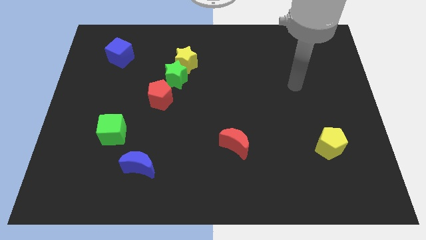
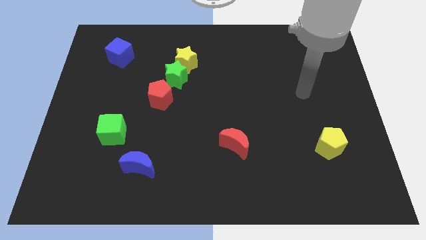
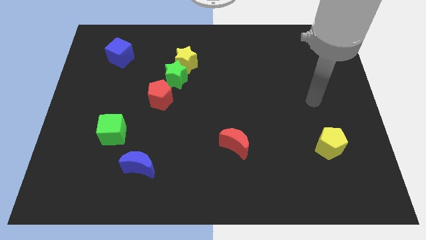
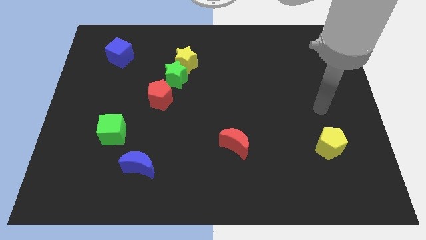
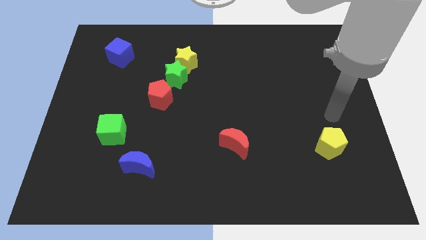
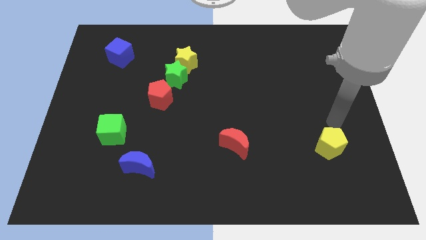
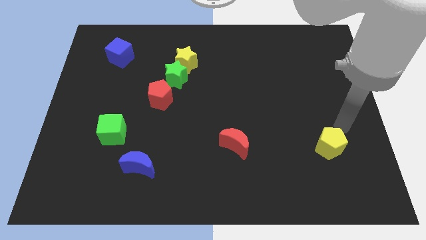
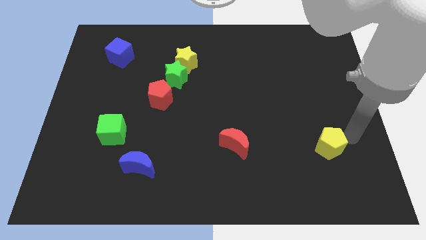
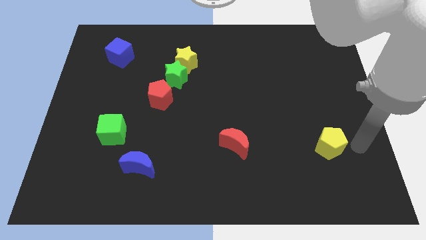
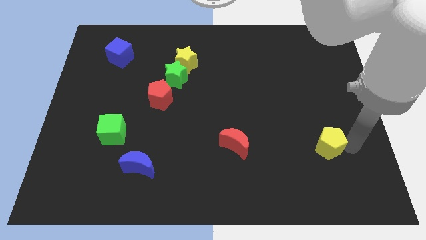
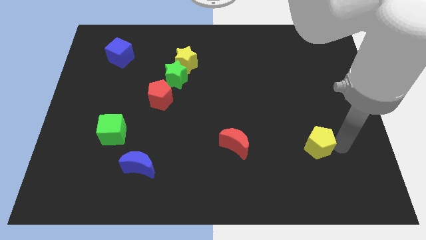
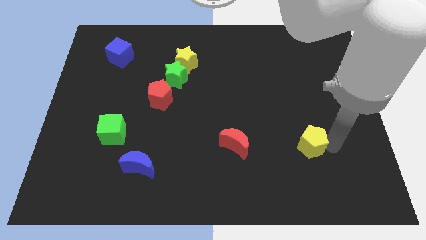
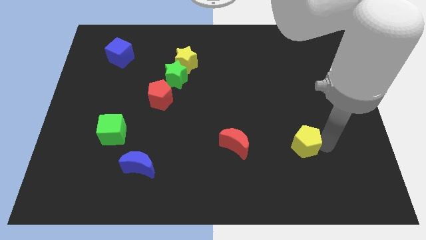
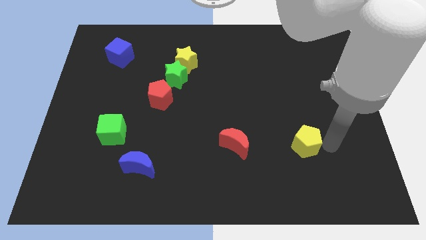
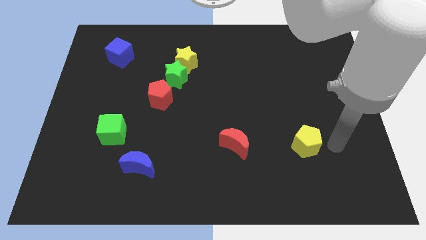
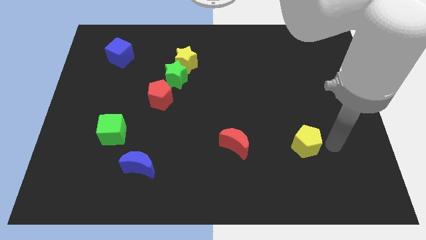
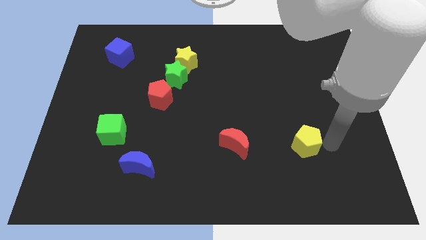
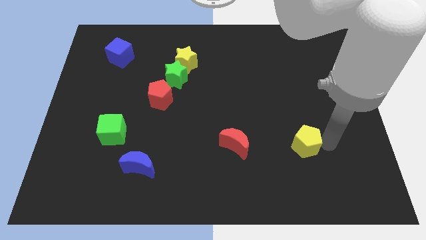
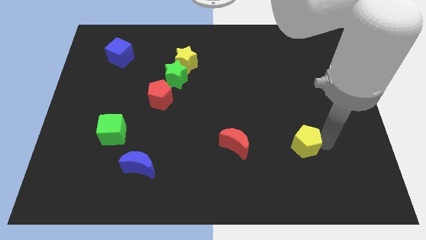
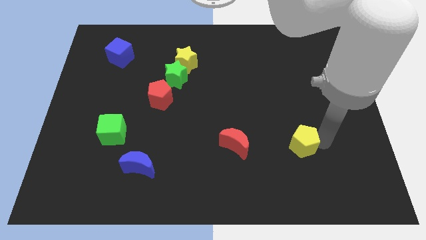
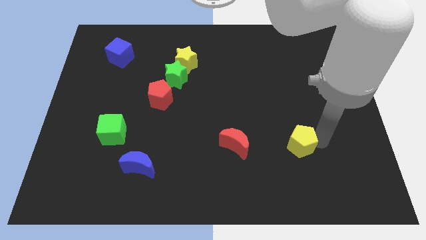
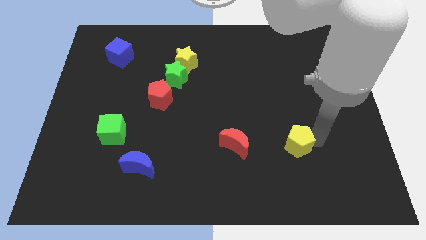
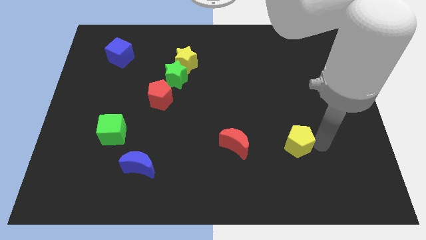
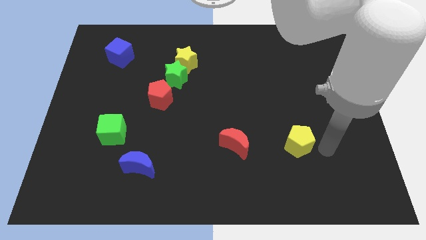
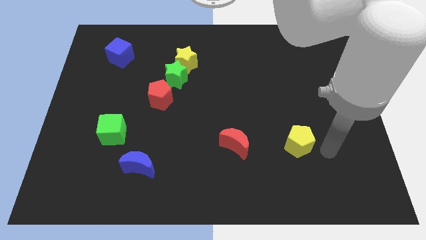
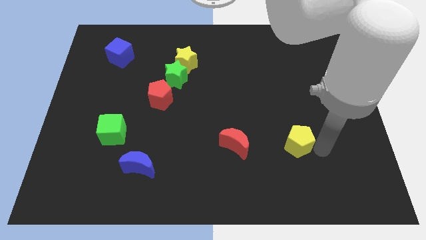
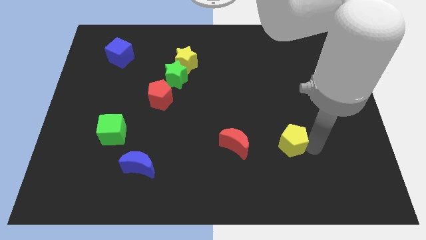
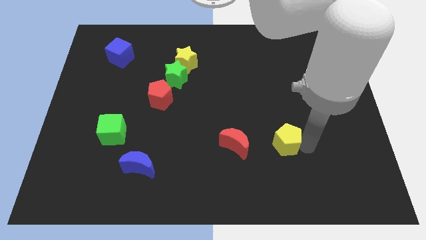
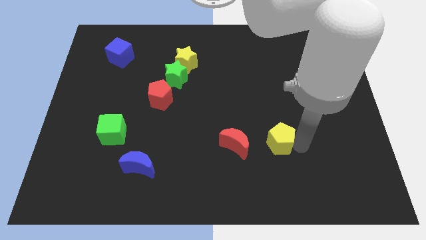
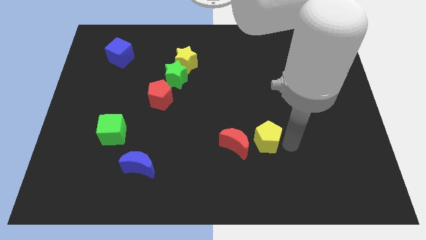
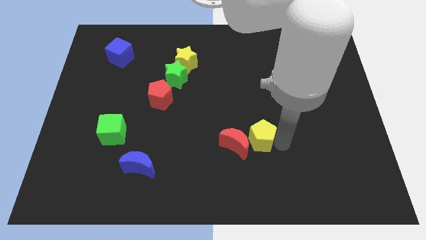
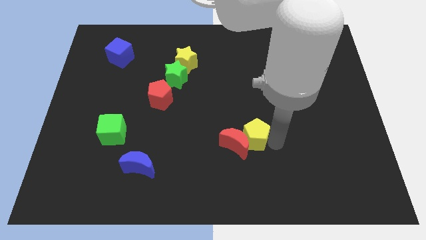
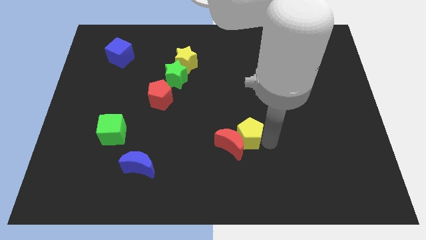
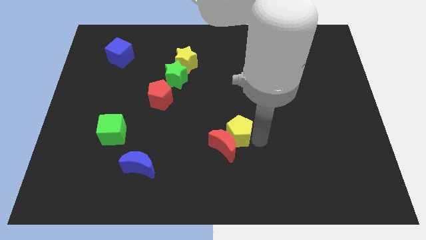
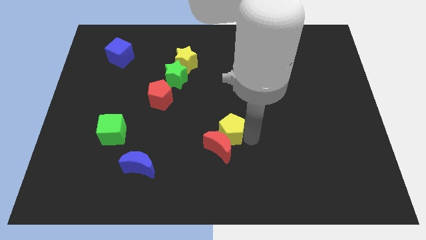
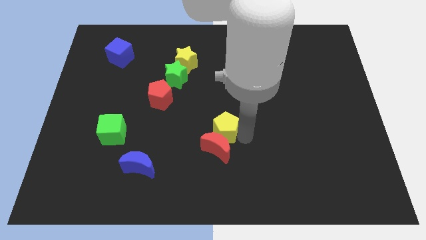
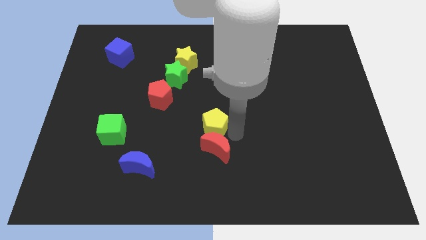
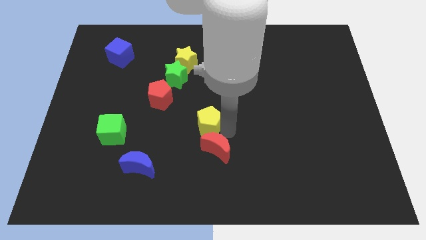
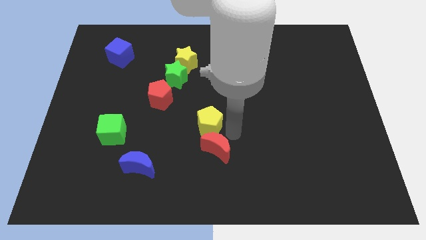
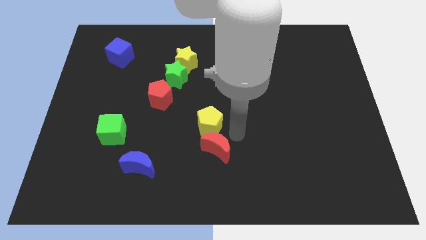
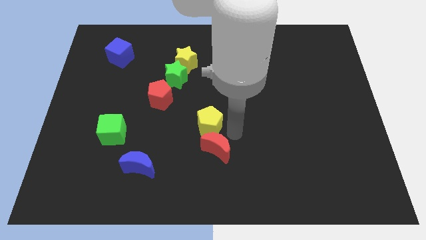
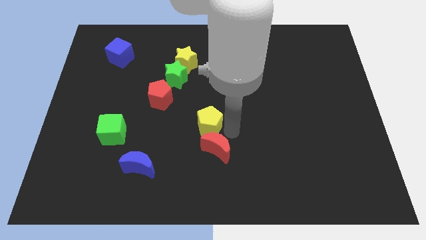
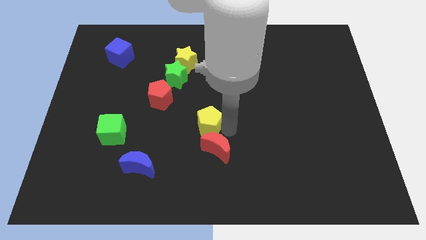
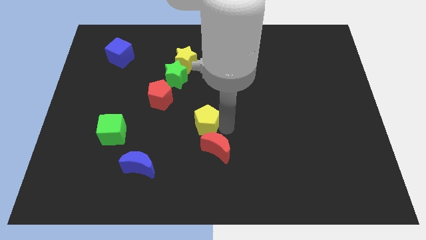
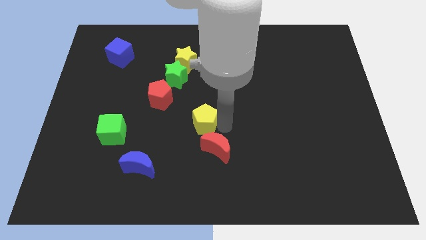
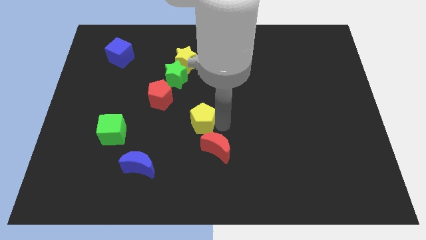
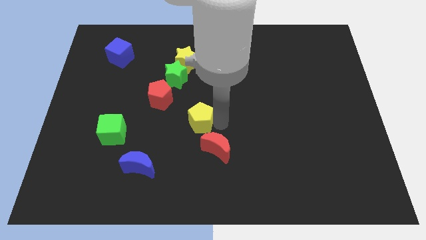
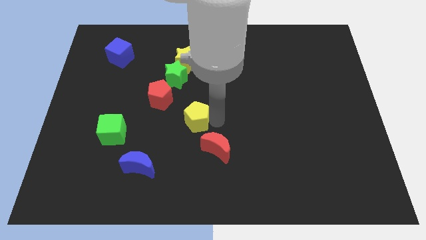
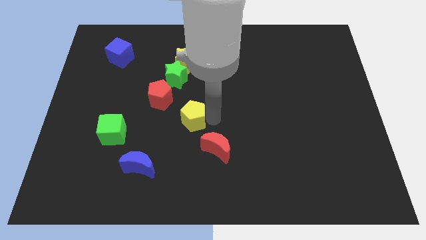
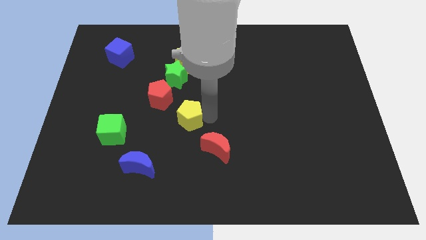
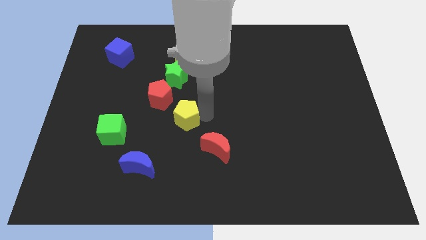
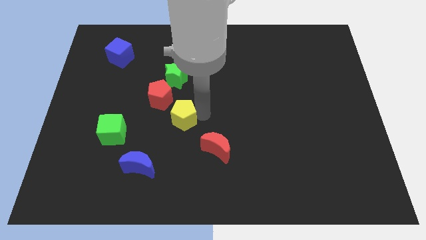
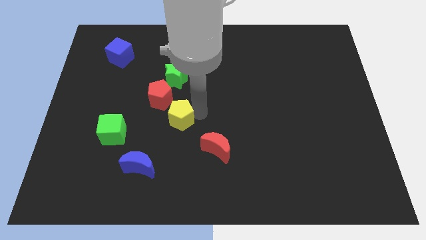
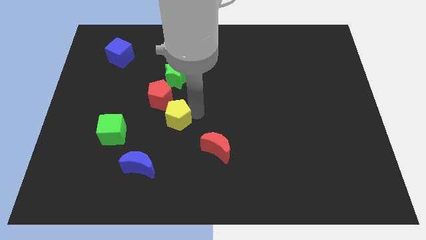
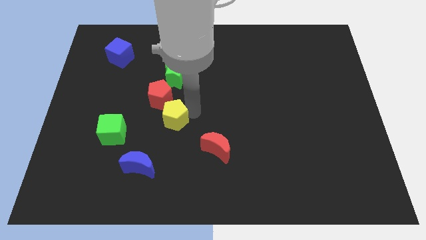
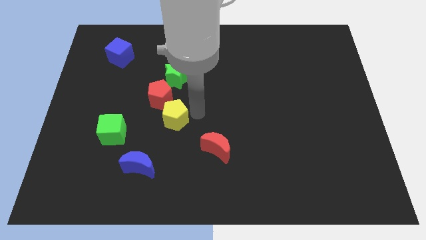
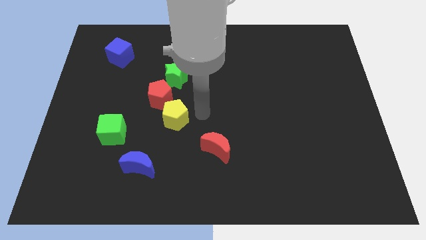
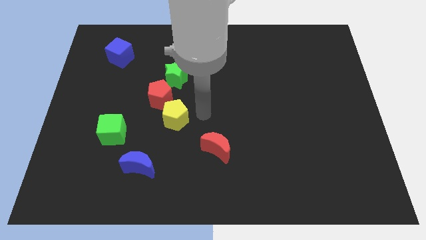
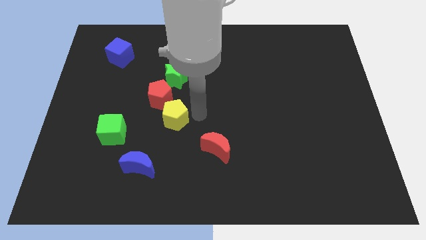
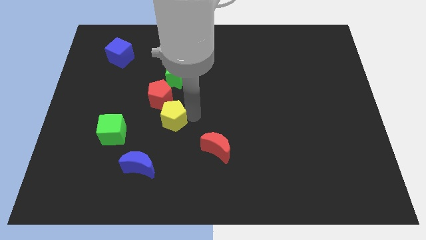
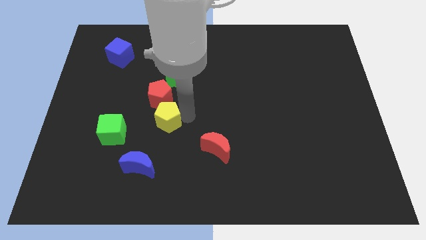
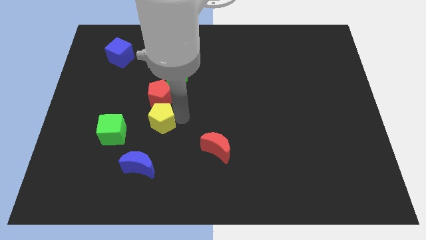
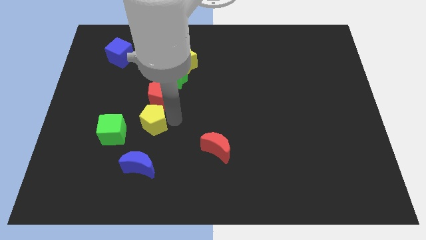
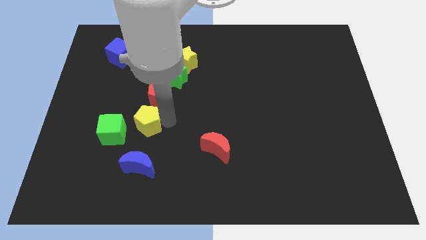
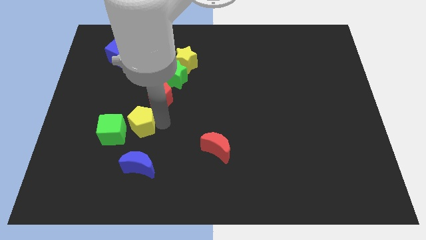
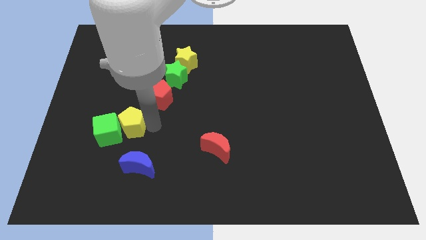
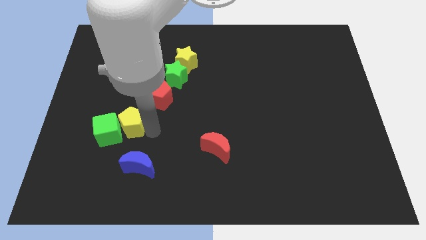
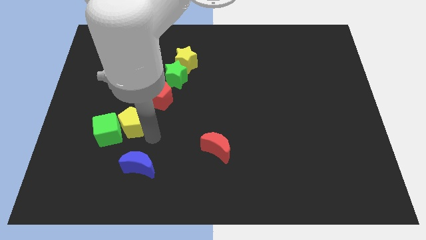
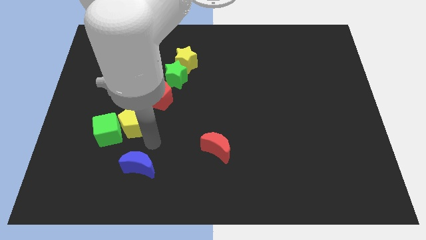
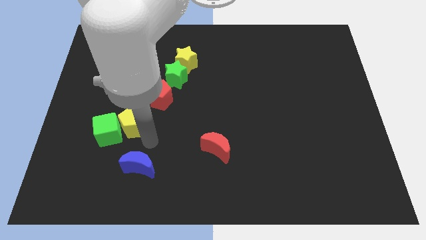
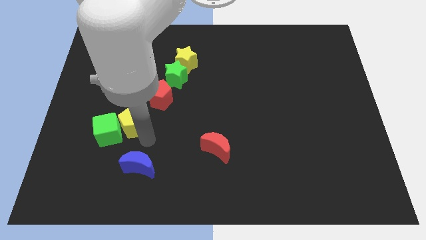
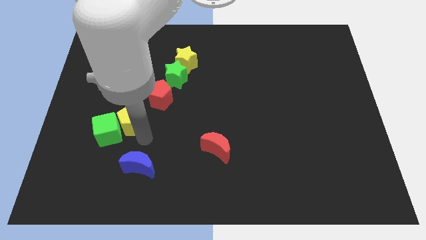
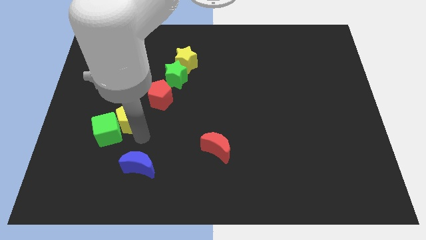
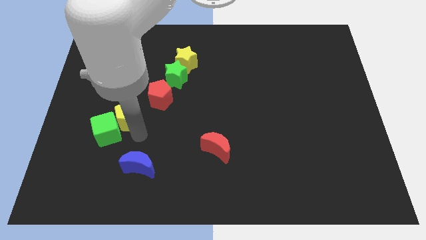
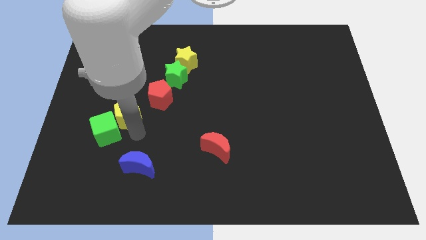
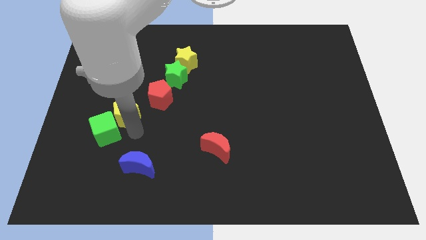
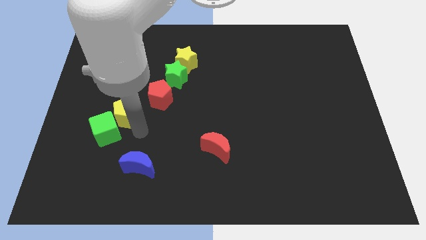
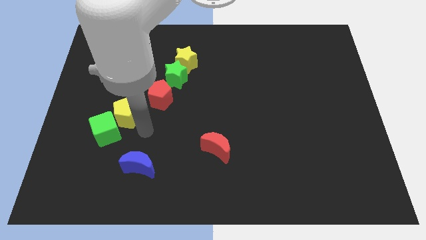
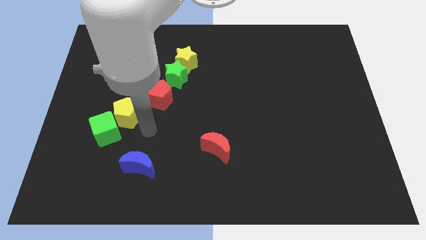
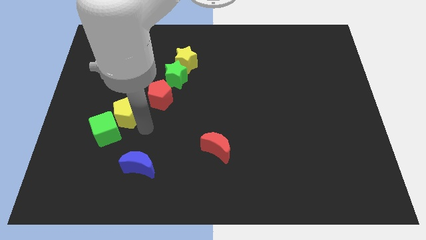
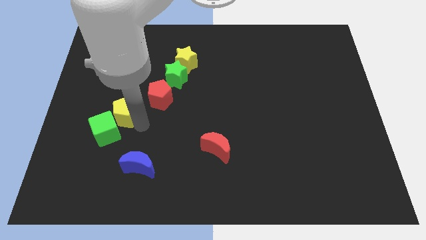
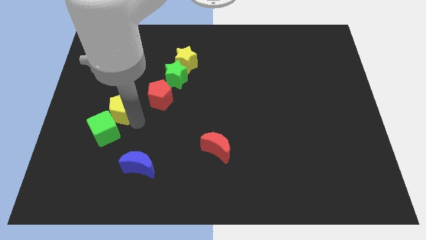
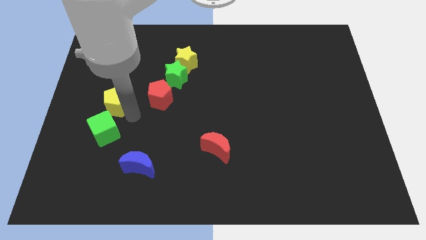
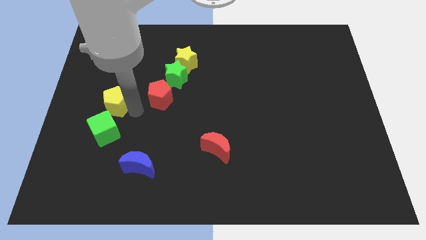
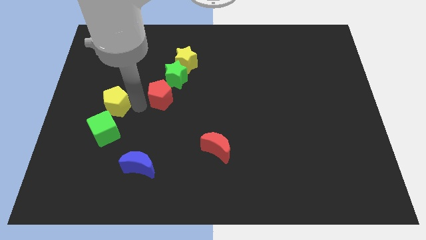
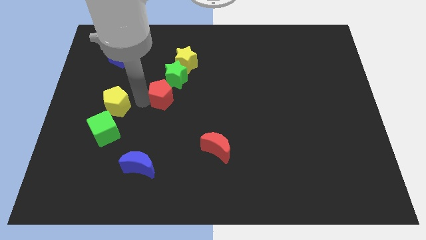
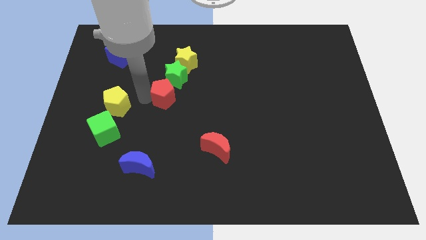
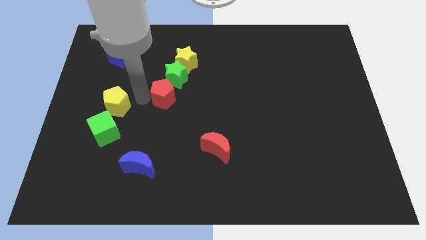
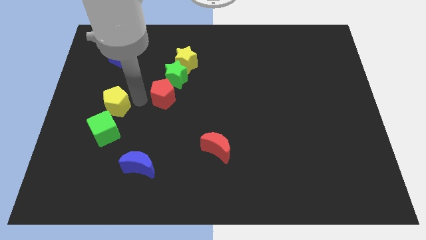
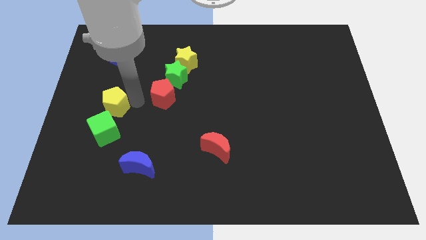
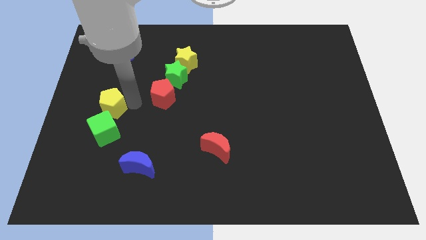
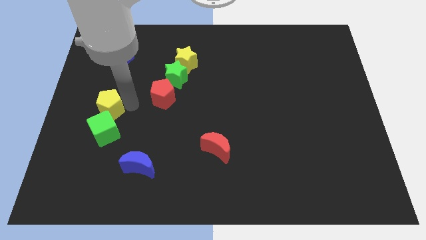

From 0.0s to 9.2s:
move the yellow pentagon to the top left of the green cube
